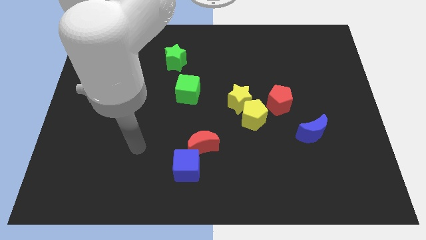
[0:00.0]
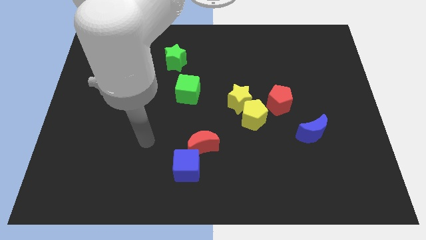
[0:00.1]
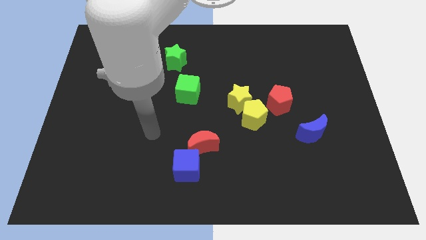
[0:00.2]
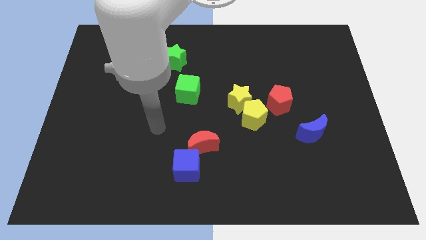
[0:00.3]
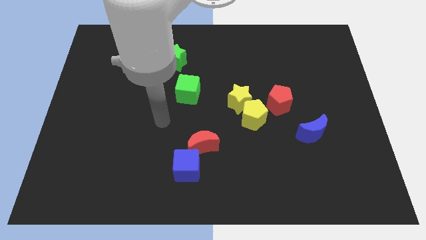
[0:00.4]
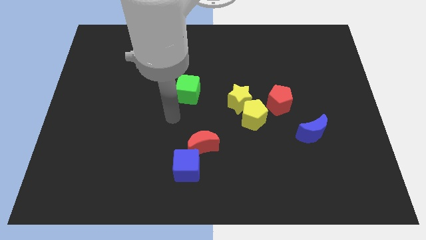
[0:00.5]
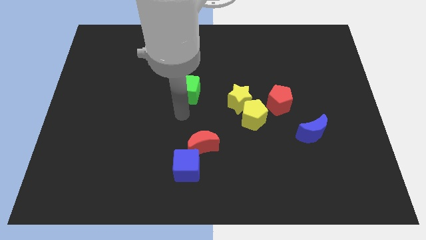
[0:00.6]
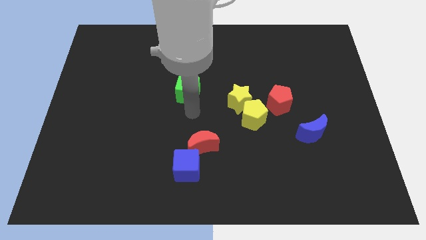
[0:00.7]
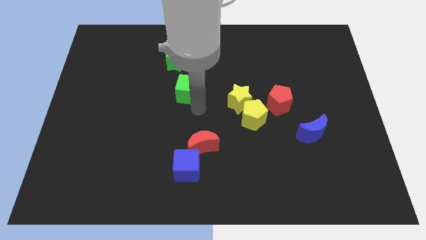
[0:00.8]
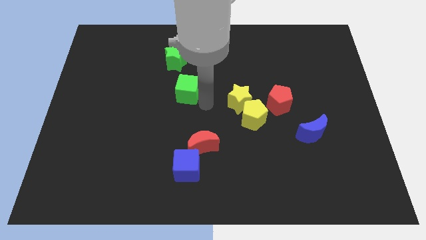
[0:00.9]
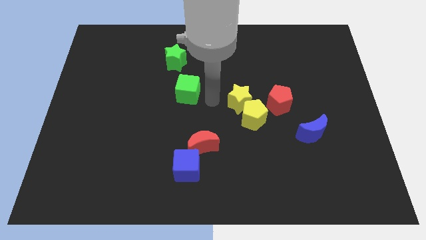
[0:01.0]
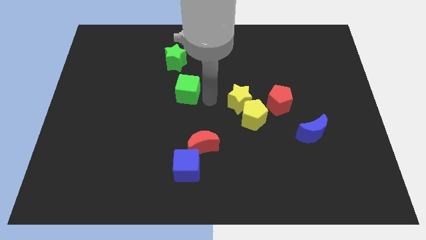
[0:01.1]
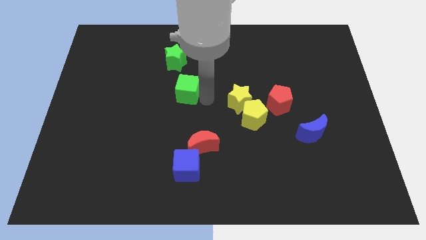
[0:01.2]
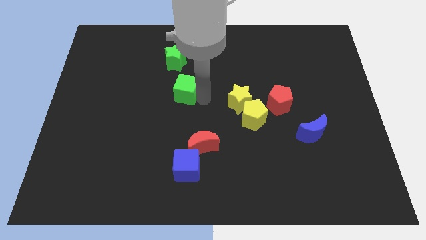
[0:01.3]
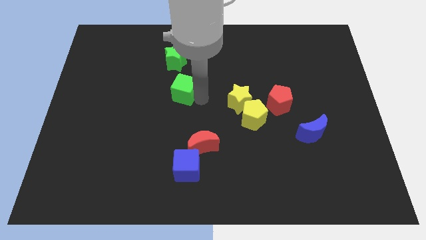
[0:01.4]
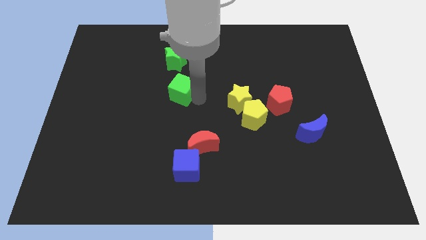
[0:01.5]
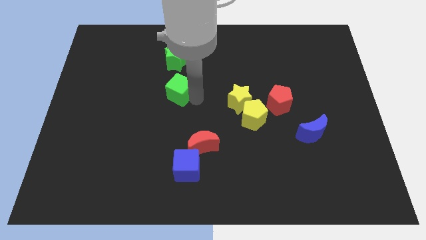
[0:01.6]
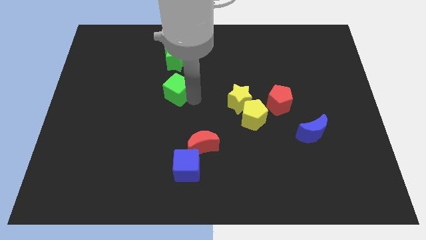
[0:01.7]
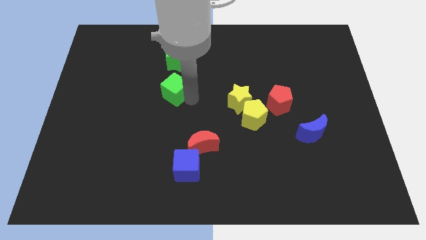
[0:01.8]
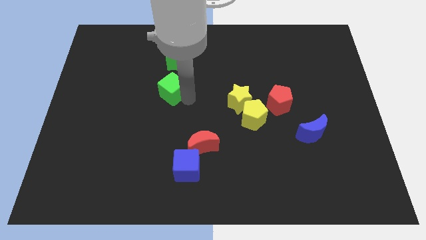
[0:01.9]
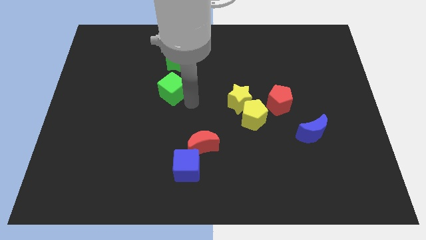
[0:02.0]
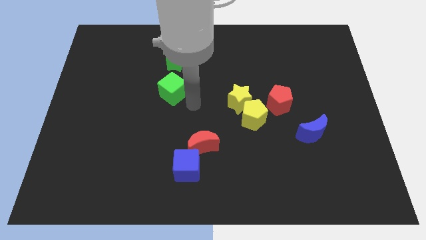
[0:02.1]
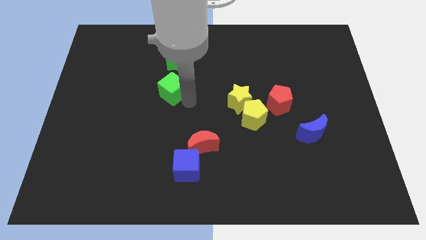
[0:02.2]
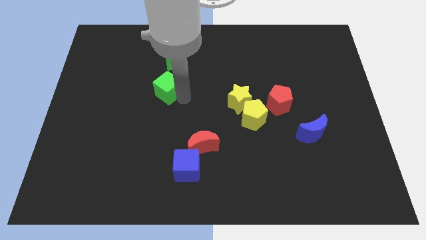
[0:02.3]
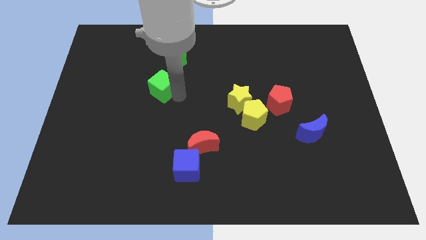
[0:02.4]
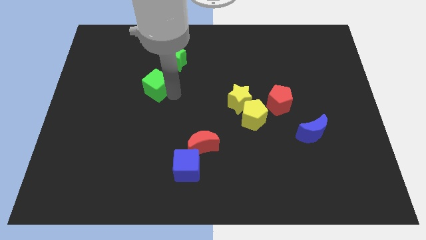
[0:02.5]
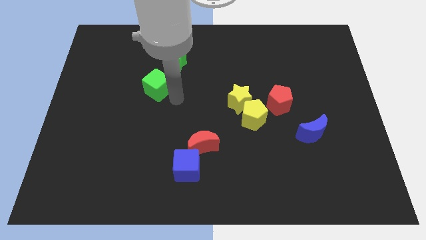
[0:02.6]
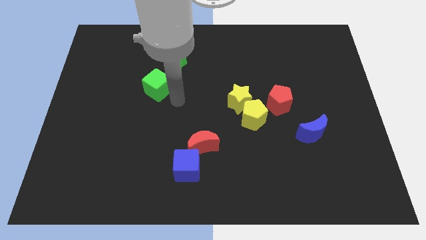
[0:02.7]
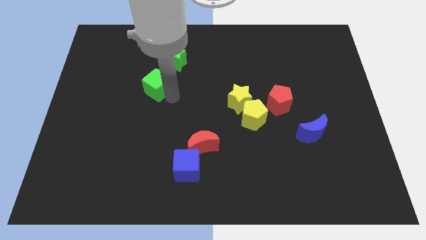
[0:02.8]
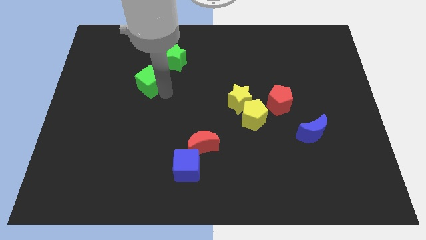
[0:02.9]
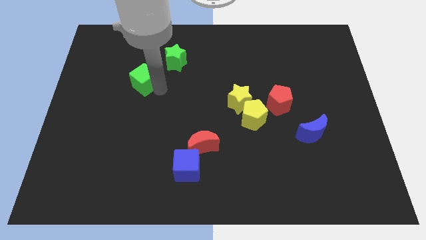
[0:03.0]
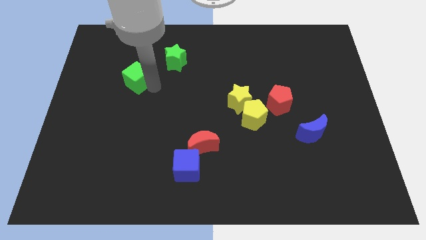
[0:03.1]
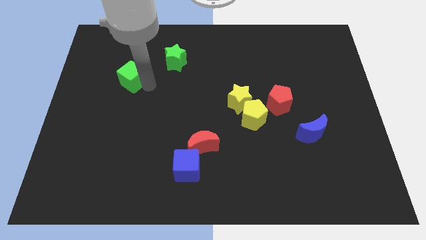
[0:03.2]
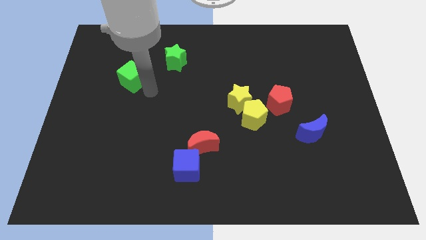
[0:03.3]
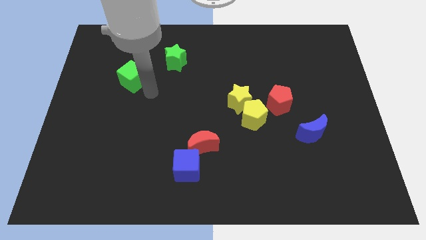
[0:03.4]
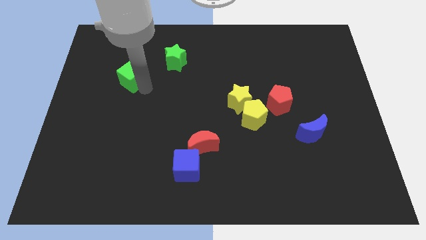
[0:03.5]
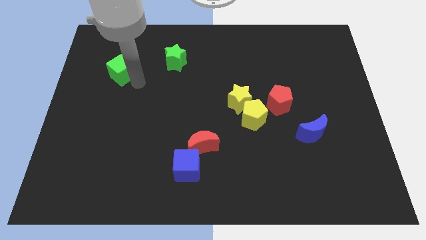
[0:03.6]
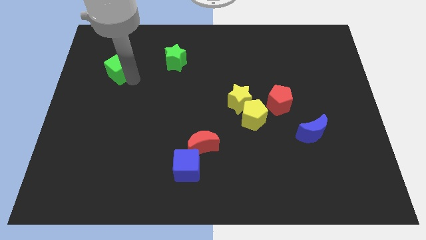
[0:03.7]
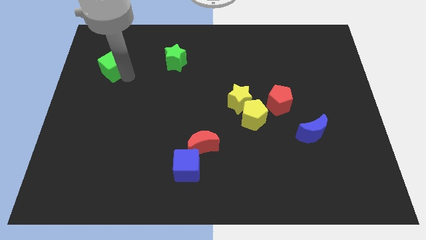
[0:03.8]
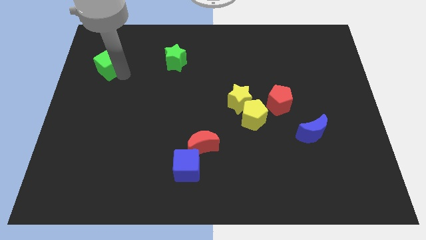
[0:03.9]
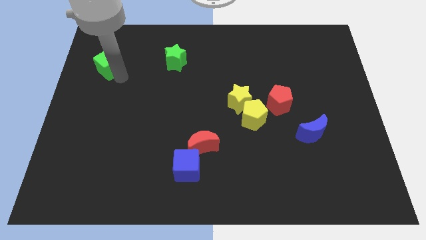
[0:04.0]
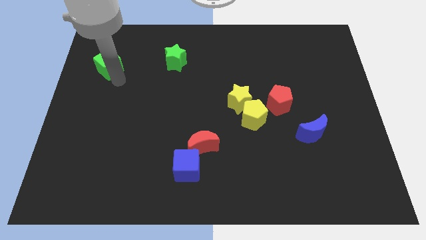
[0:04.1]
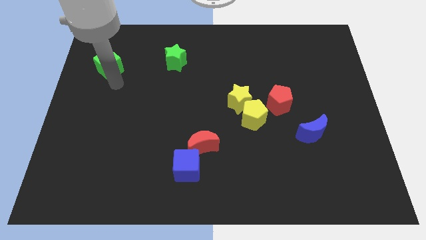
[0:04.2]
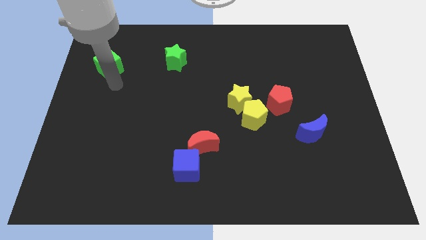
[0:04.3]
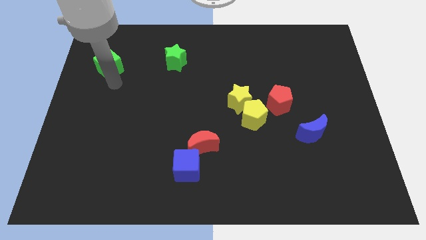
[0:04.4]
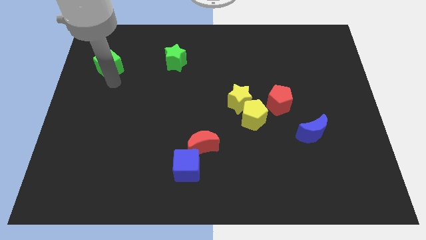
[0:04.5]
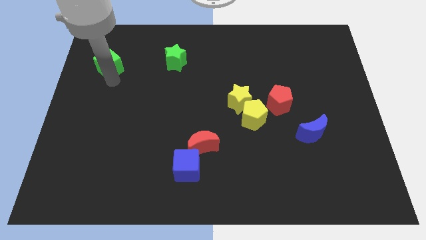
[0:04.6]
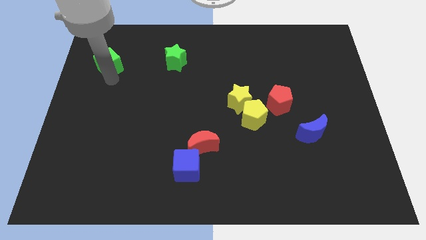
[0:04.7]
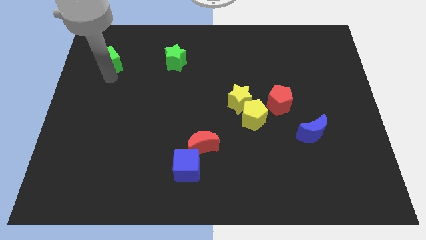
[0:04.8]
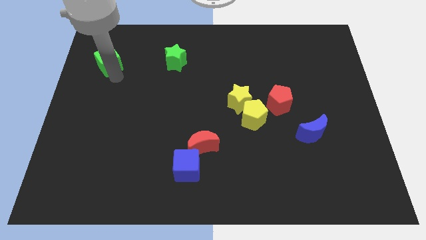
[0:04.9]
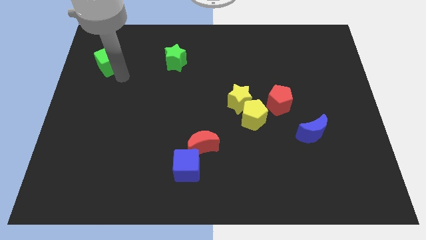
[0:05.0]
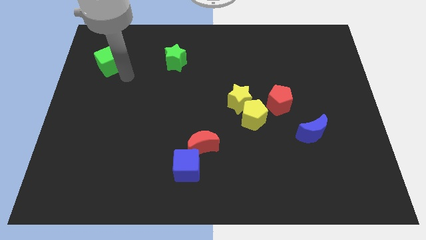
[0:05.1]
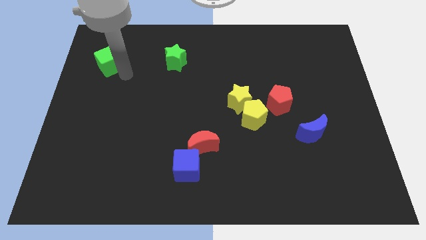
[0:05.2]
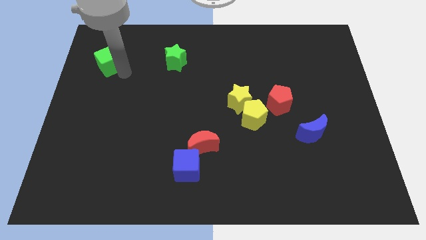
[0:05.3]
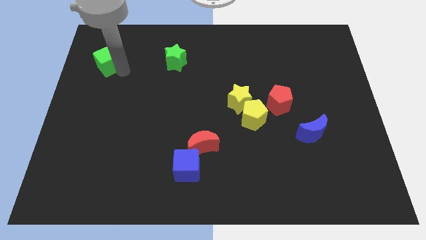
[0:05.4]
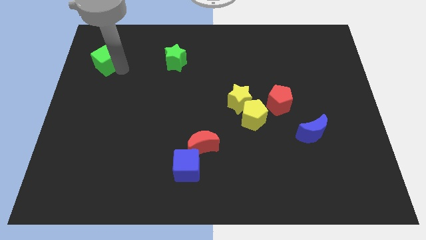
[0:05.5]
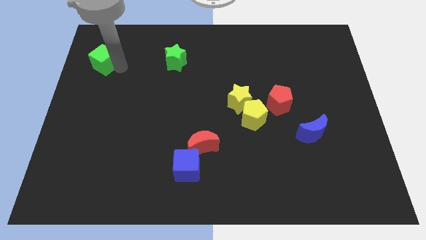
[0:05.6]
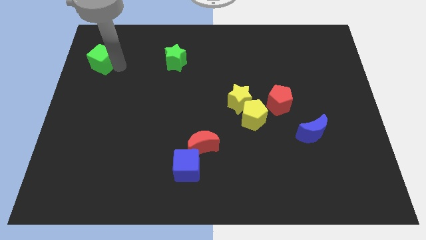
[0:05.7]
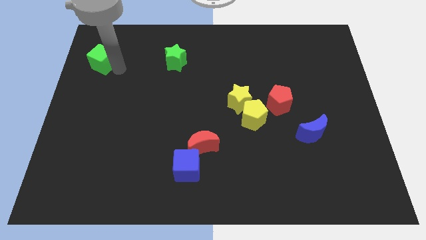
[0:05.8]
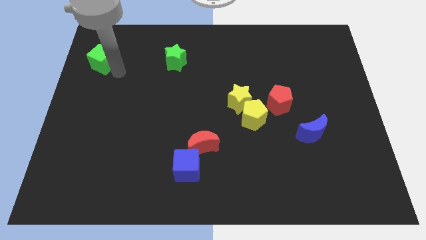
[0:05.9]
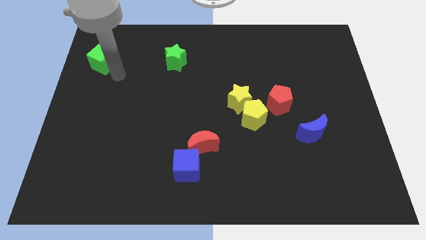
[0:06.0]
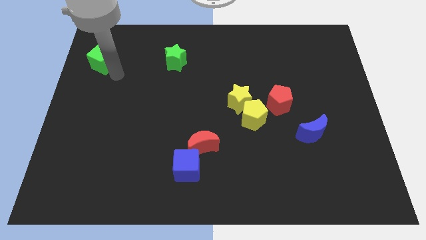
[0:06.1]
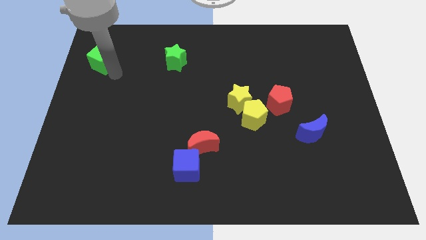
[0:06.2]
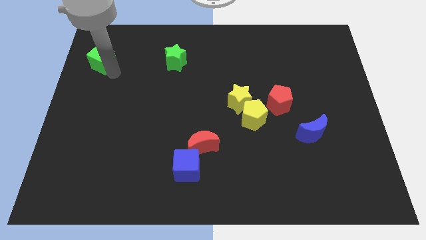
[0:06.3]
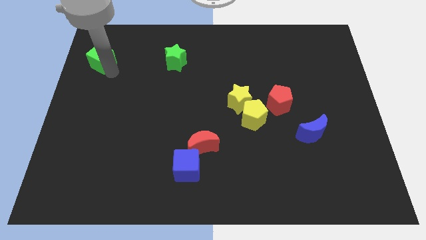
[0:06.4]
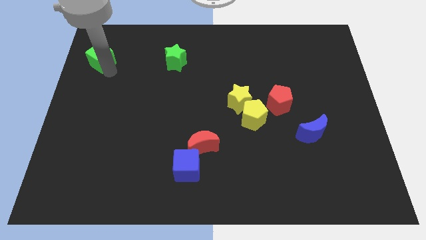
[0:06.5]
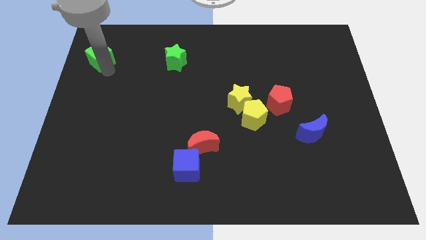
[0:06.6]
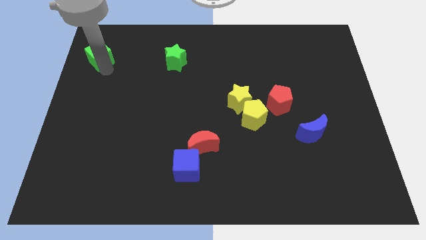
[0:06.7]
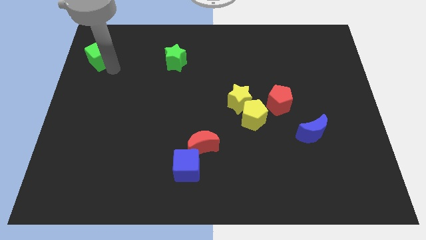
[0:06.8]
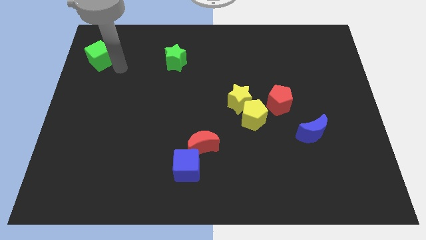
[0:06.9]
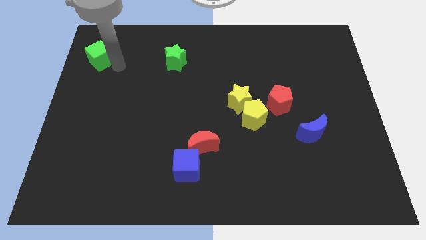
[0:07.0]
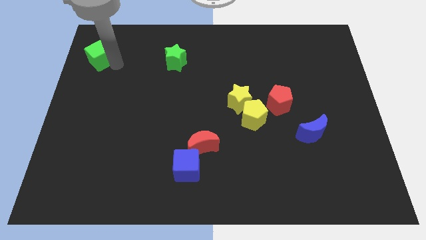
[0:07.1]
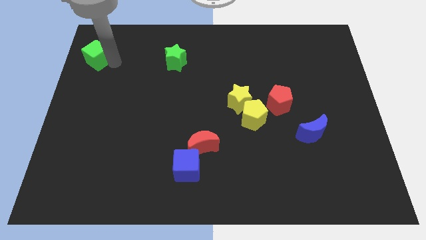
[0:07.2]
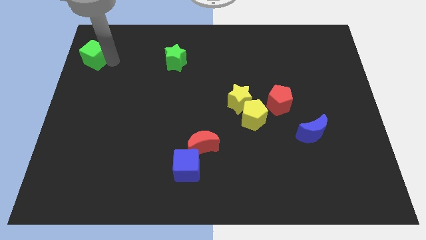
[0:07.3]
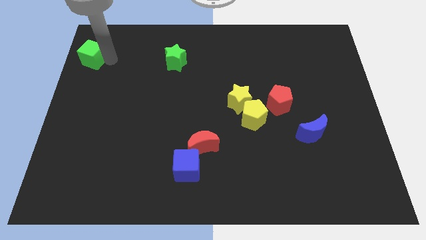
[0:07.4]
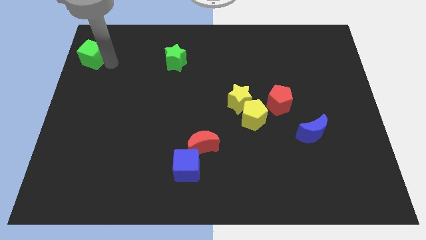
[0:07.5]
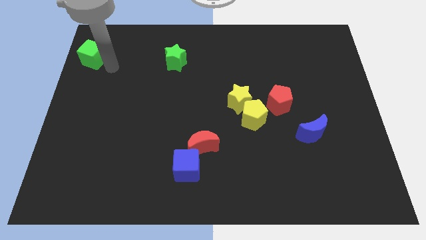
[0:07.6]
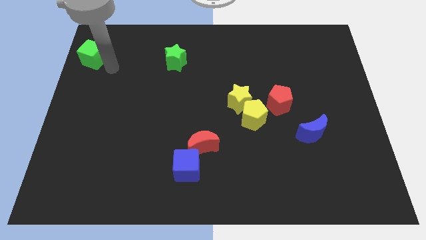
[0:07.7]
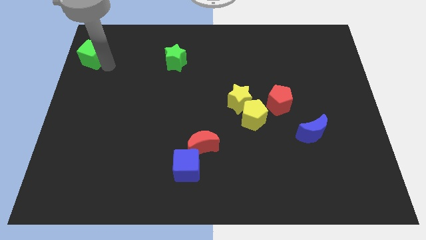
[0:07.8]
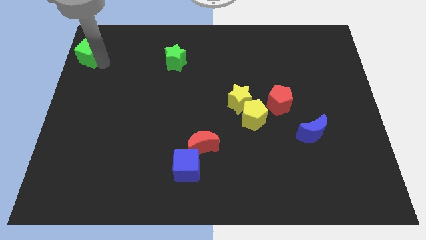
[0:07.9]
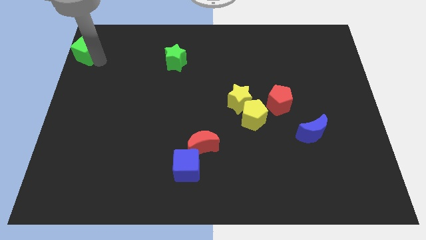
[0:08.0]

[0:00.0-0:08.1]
push the green cube to the top left
